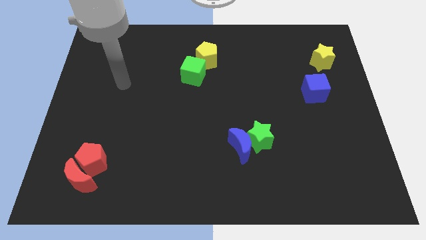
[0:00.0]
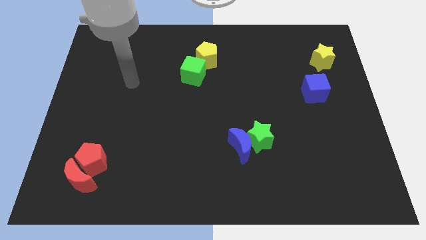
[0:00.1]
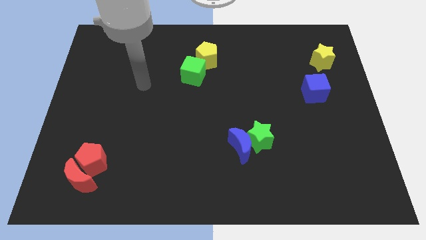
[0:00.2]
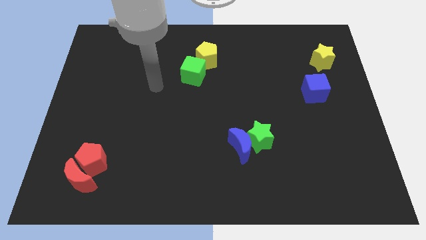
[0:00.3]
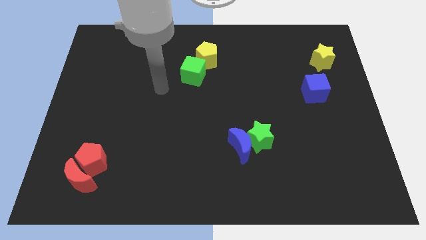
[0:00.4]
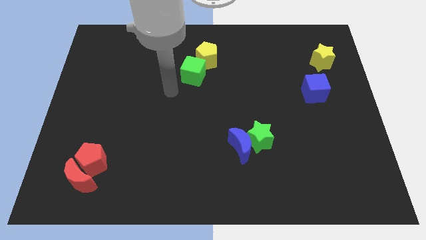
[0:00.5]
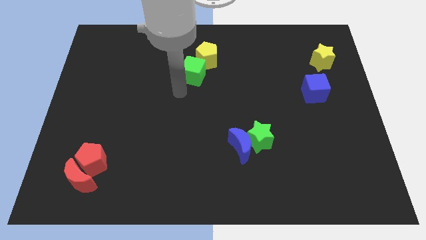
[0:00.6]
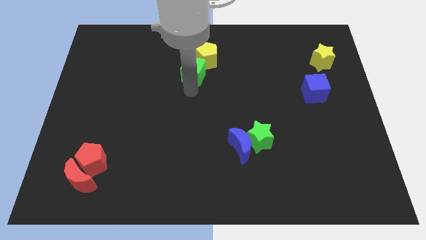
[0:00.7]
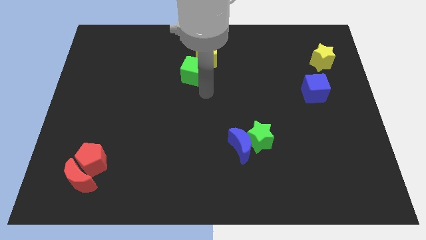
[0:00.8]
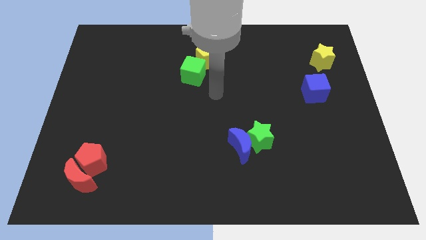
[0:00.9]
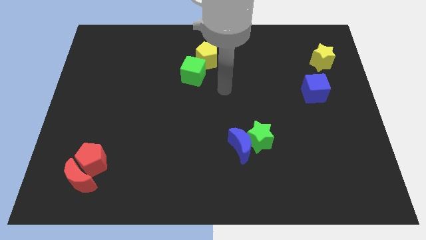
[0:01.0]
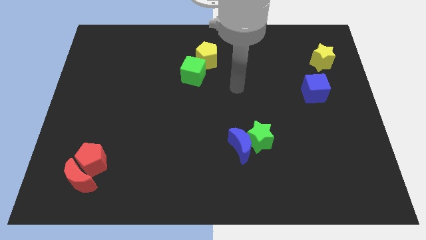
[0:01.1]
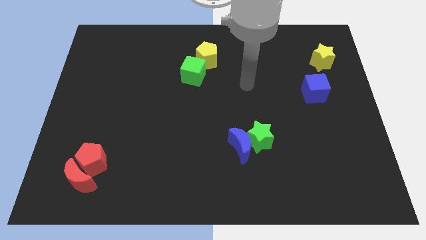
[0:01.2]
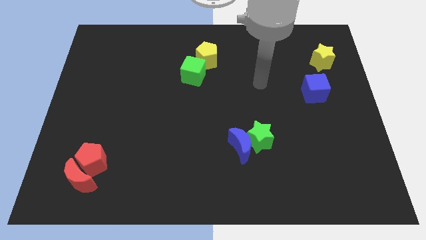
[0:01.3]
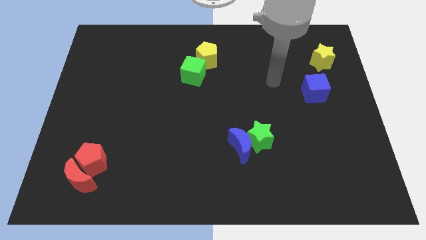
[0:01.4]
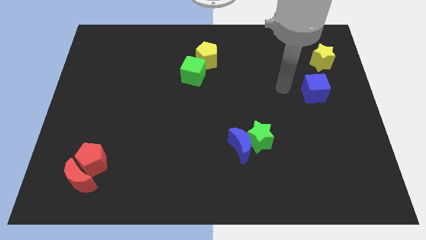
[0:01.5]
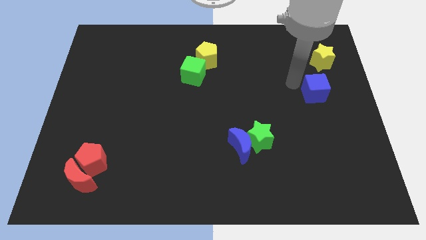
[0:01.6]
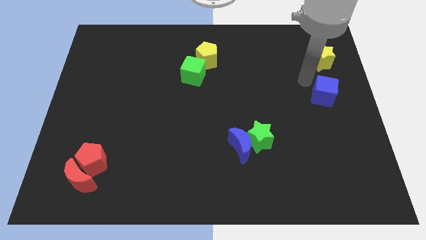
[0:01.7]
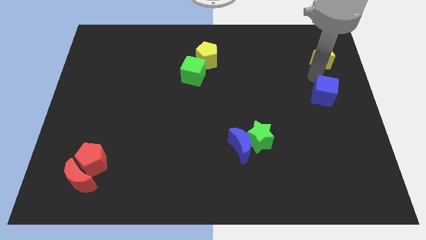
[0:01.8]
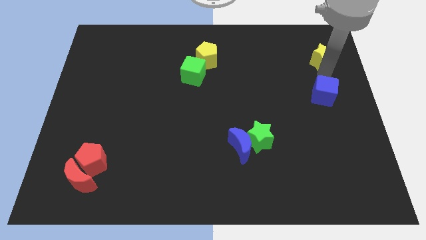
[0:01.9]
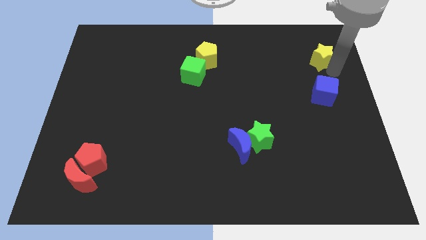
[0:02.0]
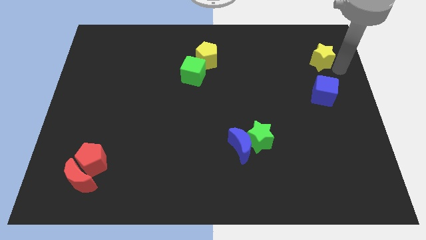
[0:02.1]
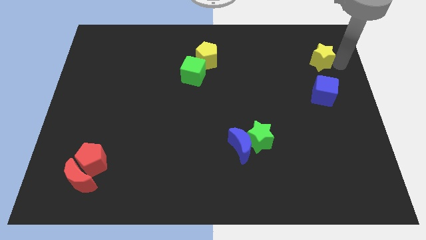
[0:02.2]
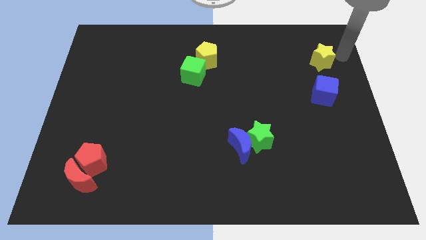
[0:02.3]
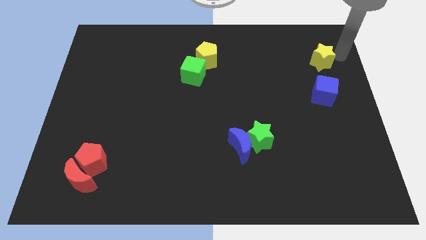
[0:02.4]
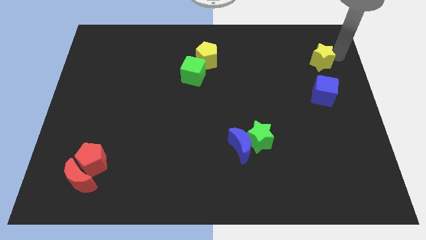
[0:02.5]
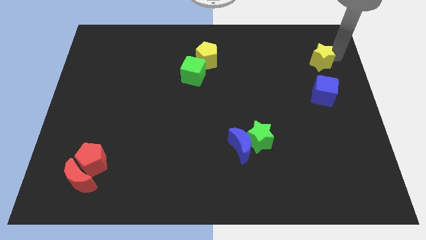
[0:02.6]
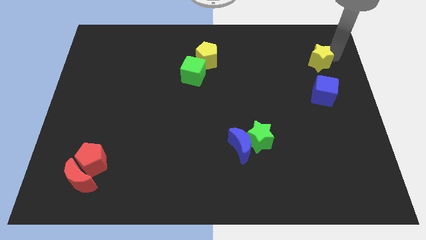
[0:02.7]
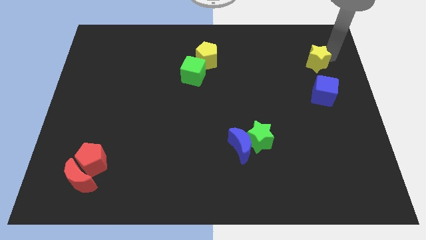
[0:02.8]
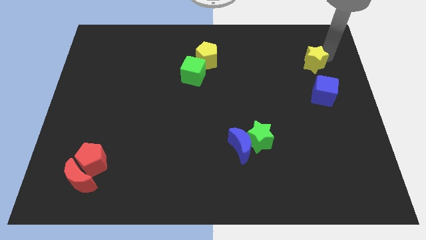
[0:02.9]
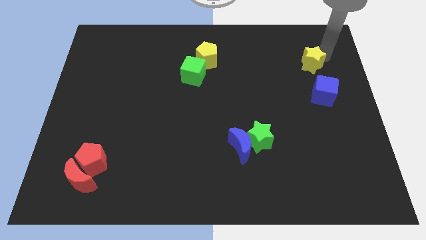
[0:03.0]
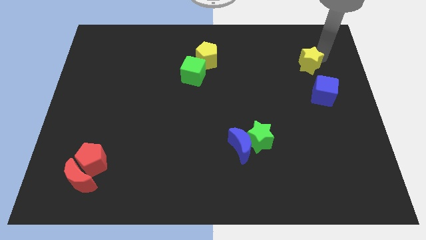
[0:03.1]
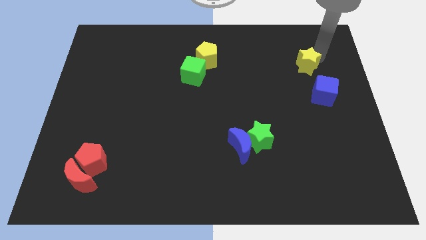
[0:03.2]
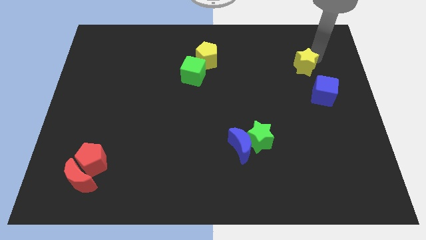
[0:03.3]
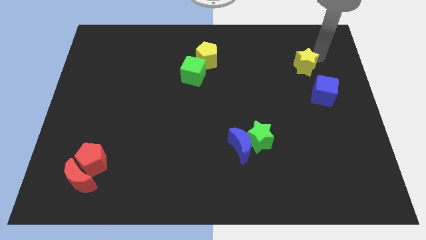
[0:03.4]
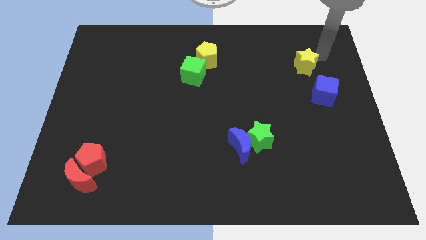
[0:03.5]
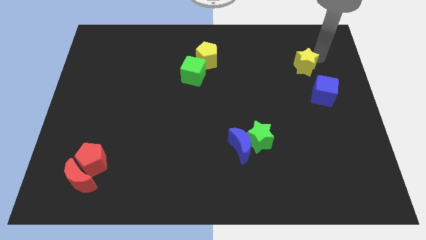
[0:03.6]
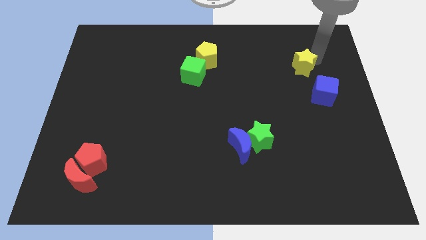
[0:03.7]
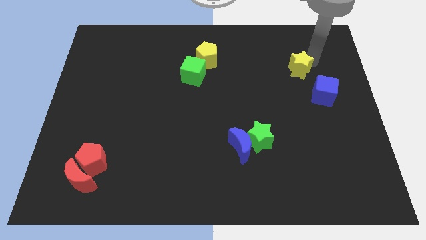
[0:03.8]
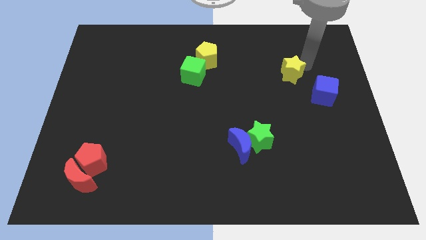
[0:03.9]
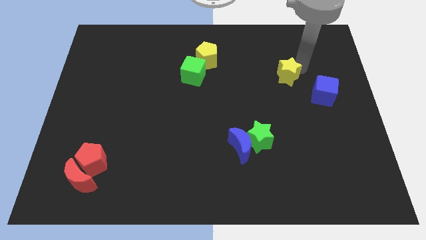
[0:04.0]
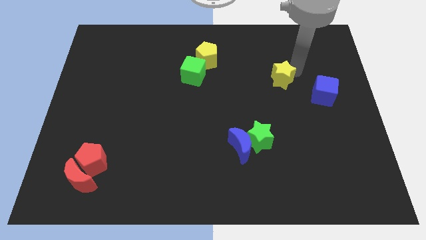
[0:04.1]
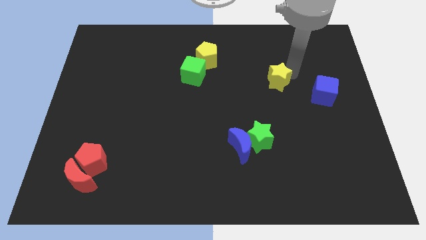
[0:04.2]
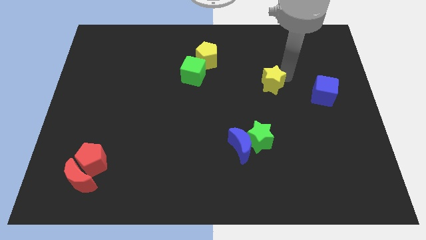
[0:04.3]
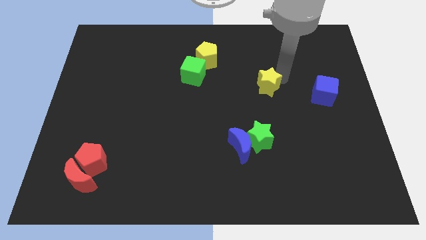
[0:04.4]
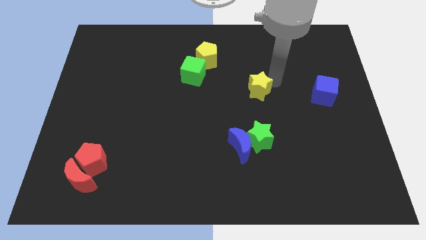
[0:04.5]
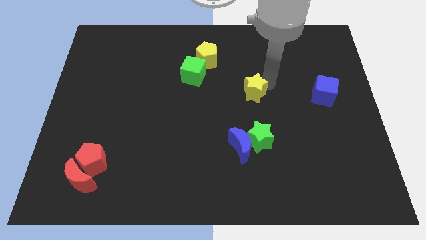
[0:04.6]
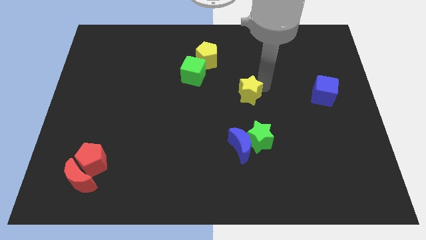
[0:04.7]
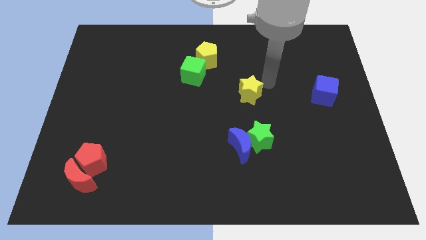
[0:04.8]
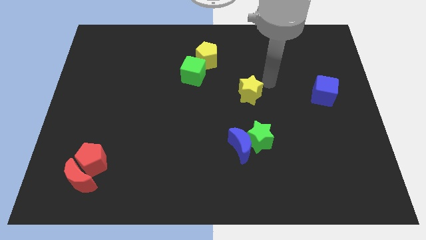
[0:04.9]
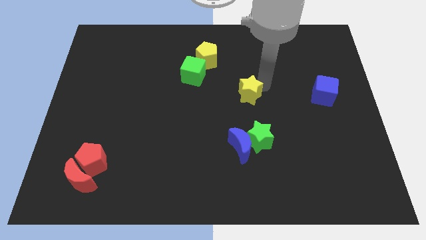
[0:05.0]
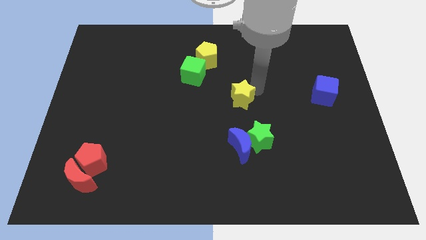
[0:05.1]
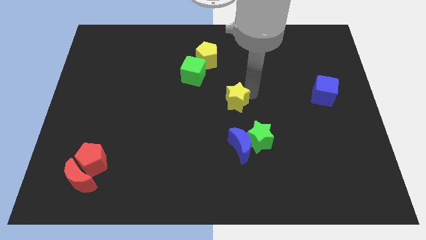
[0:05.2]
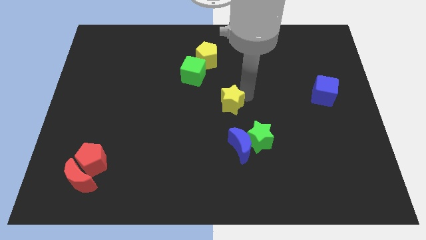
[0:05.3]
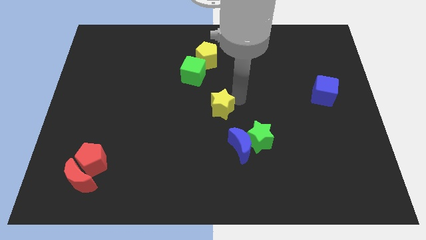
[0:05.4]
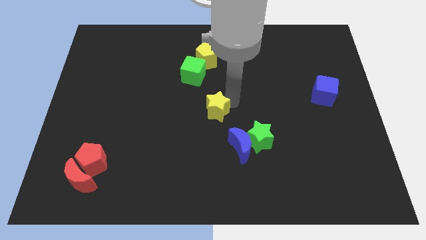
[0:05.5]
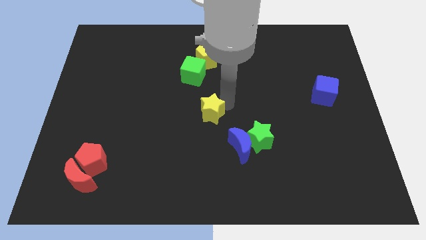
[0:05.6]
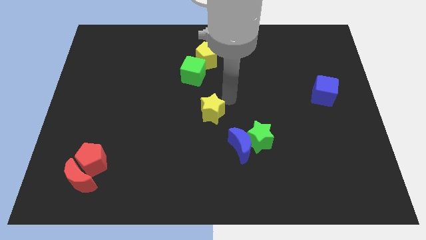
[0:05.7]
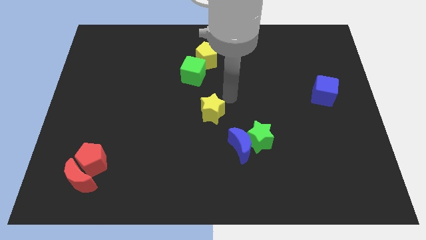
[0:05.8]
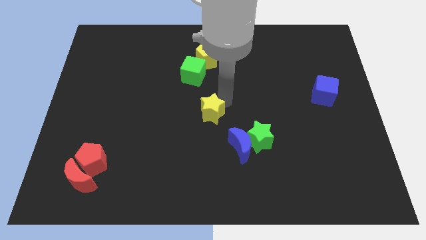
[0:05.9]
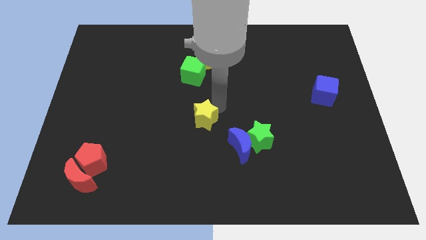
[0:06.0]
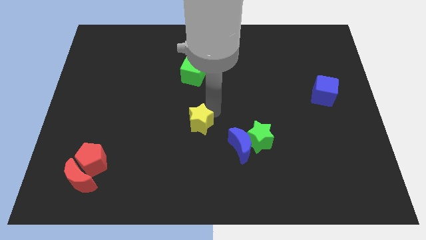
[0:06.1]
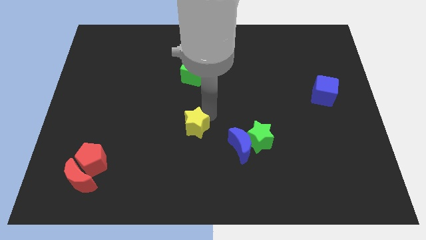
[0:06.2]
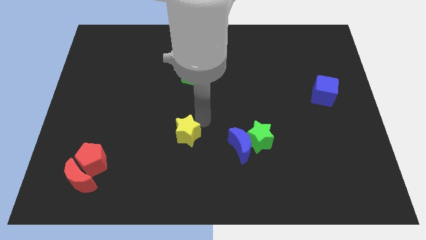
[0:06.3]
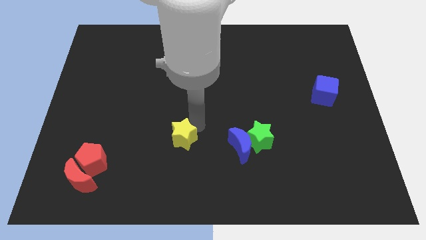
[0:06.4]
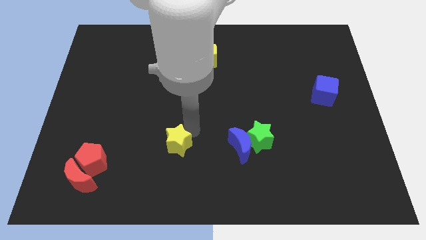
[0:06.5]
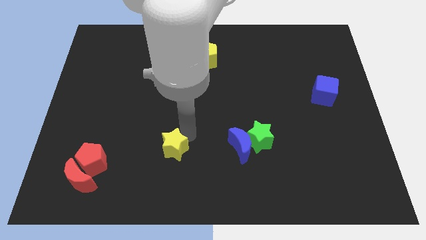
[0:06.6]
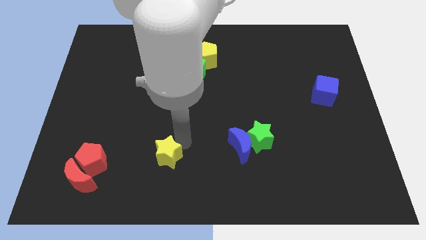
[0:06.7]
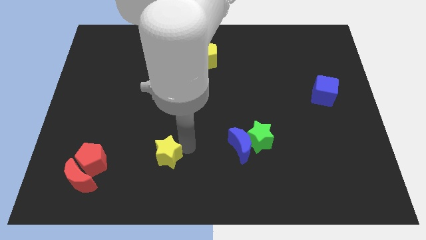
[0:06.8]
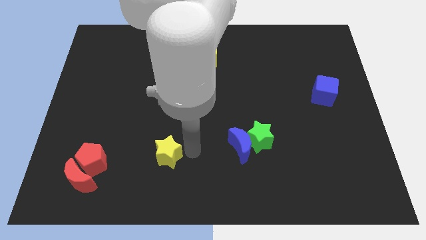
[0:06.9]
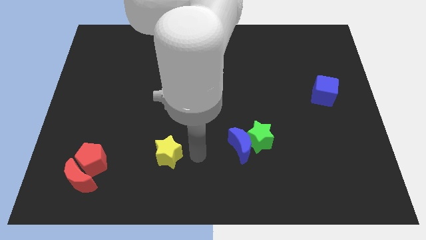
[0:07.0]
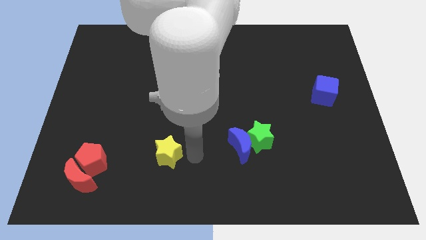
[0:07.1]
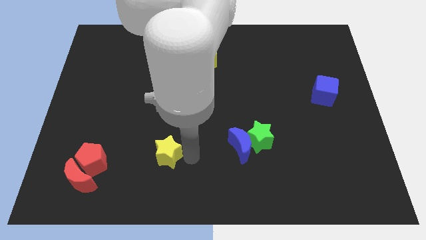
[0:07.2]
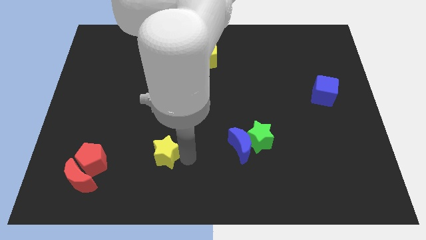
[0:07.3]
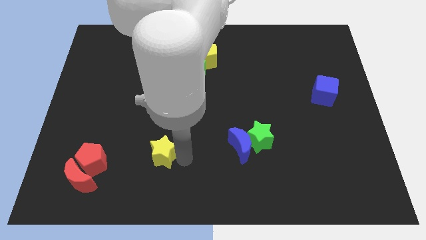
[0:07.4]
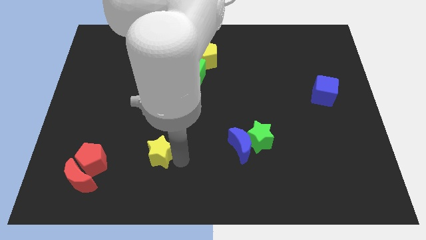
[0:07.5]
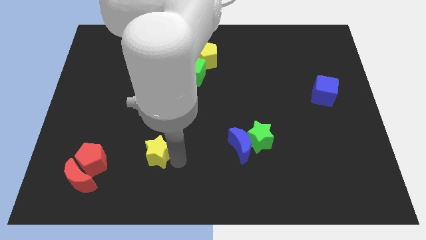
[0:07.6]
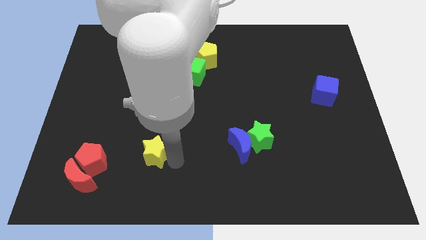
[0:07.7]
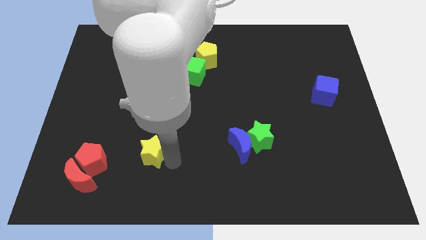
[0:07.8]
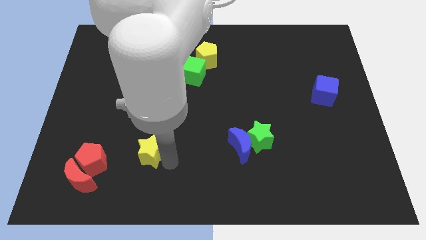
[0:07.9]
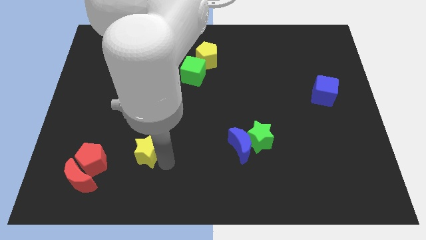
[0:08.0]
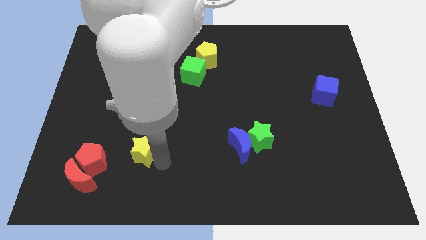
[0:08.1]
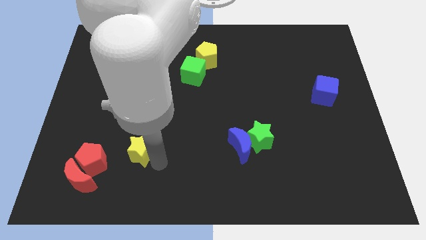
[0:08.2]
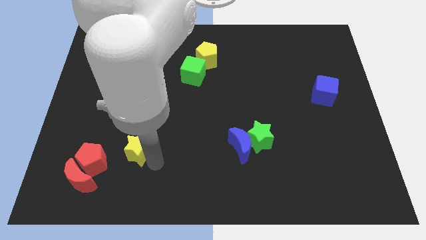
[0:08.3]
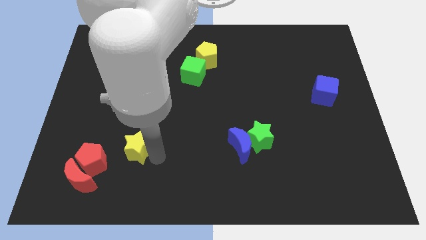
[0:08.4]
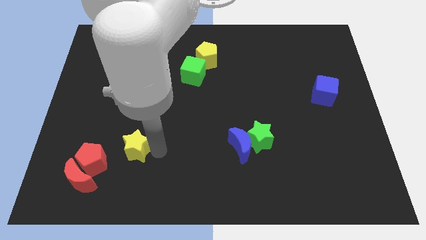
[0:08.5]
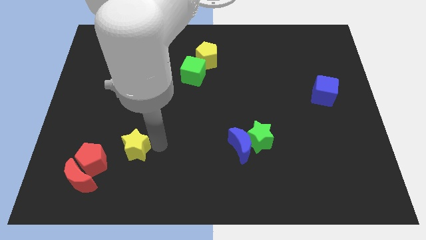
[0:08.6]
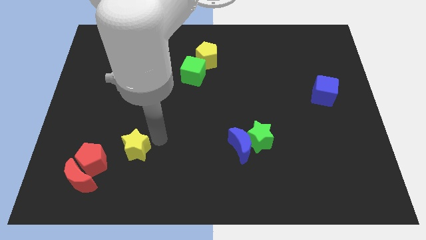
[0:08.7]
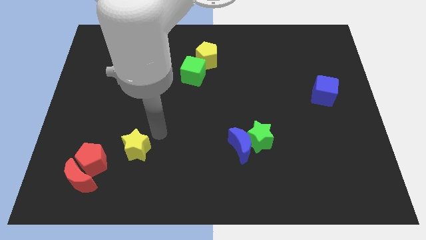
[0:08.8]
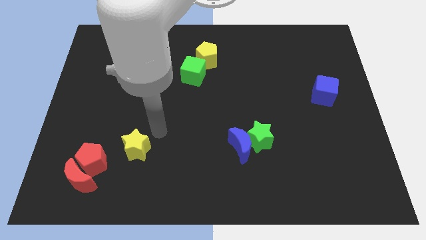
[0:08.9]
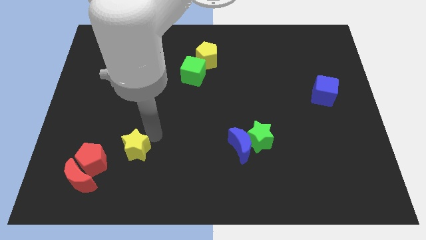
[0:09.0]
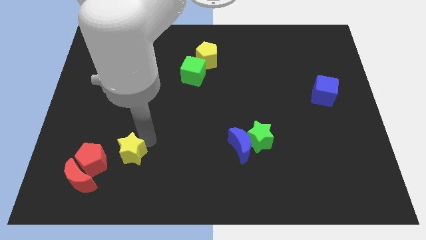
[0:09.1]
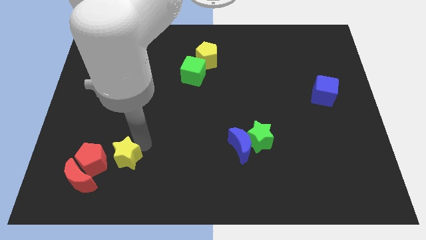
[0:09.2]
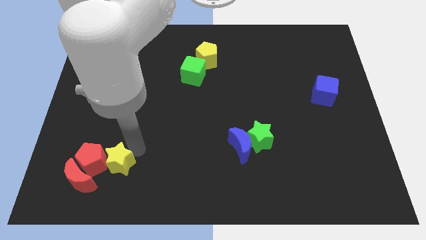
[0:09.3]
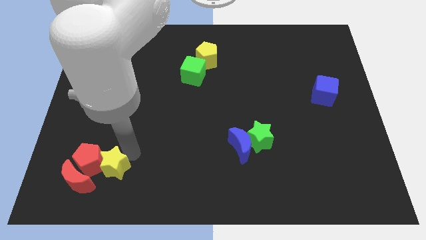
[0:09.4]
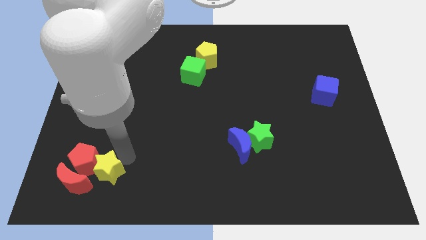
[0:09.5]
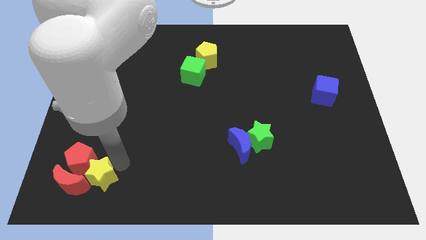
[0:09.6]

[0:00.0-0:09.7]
slide the yellow star close to the red moon
